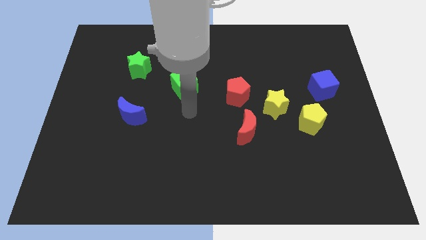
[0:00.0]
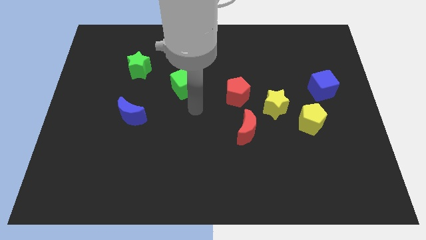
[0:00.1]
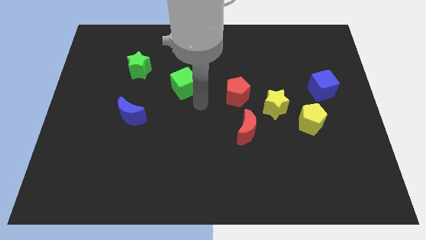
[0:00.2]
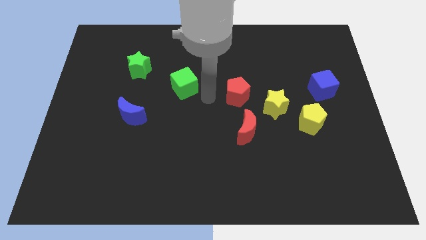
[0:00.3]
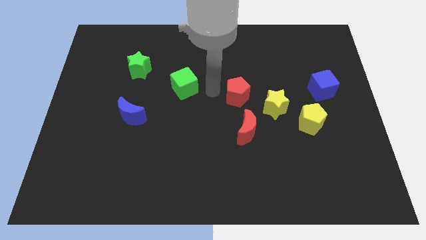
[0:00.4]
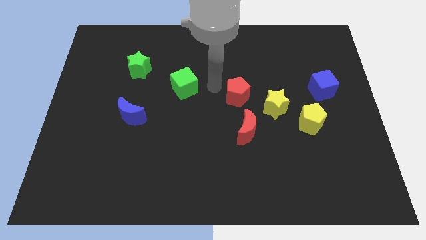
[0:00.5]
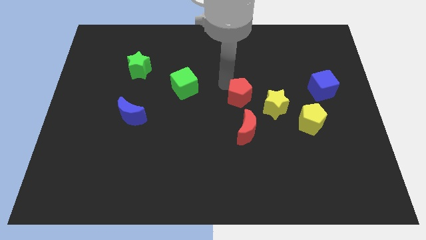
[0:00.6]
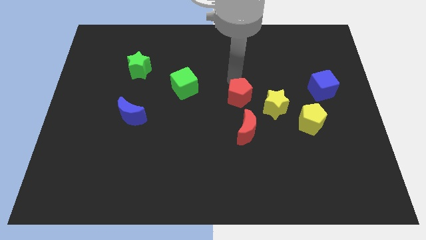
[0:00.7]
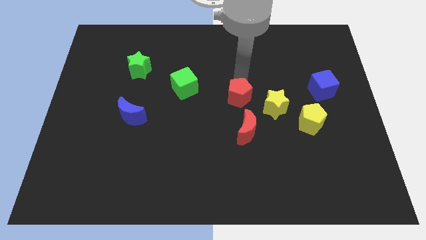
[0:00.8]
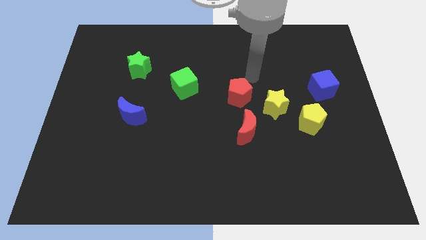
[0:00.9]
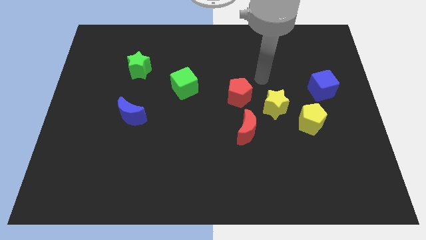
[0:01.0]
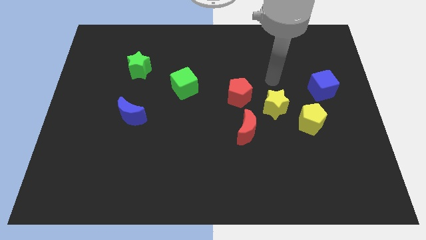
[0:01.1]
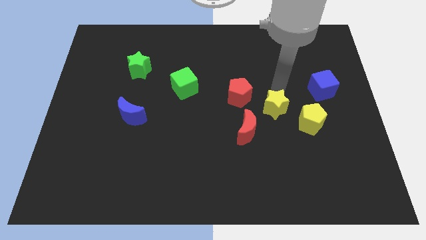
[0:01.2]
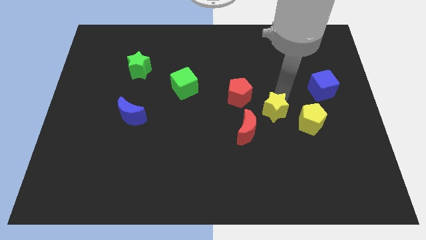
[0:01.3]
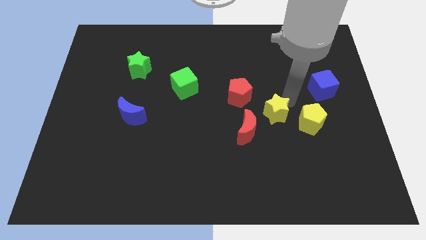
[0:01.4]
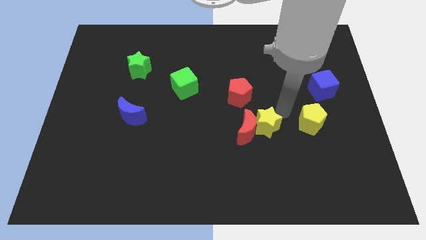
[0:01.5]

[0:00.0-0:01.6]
pull the yellow pentagon apart from the yellow star

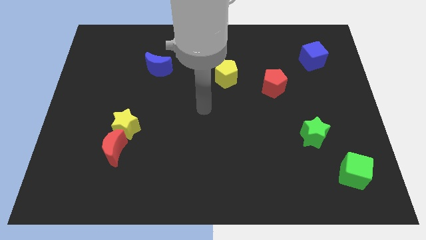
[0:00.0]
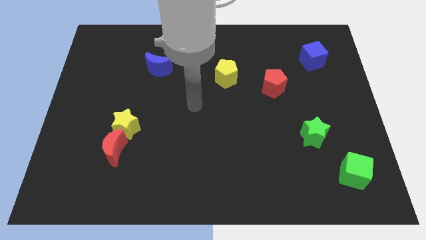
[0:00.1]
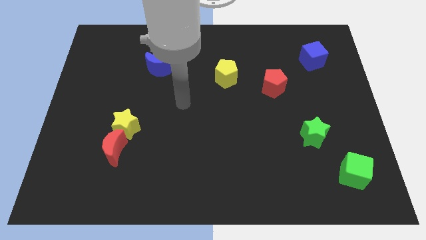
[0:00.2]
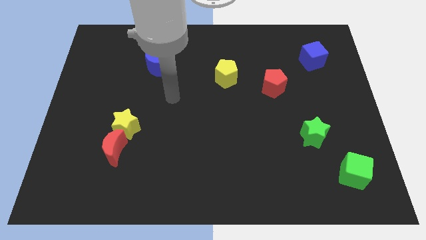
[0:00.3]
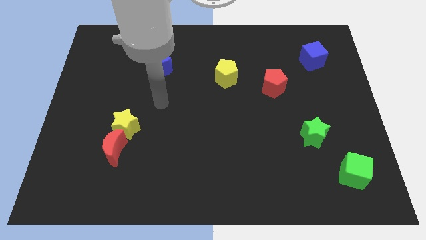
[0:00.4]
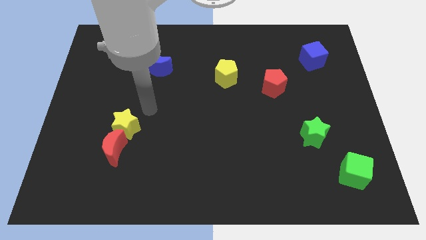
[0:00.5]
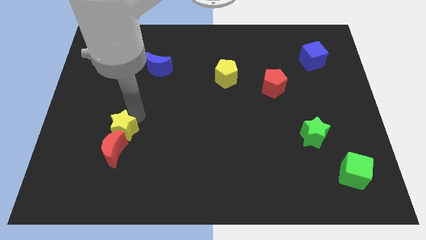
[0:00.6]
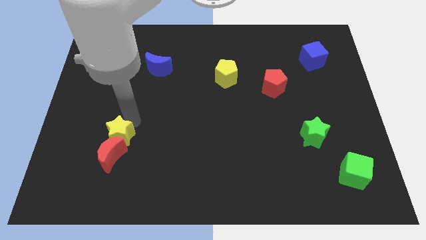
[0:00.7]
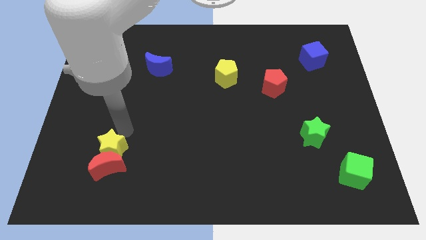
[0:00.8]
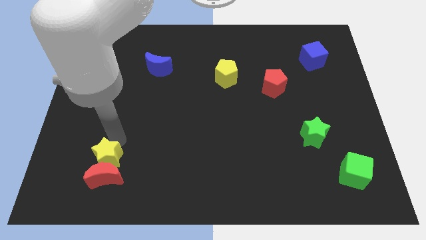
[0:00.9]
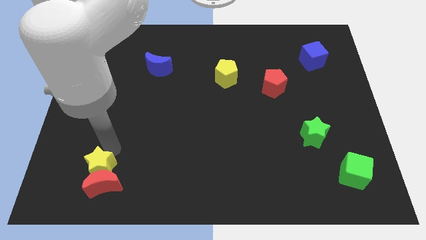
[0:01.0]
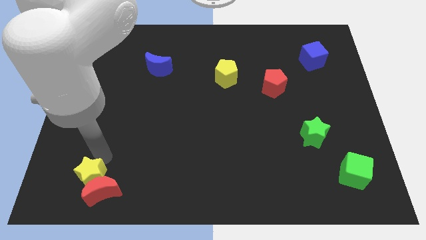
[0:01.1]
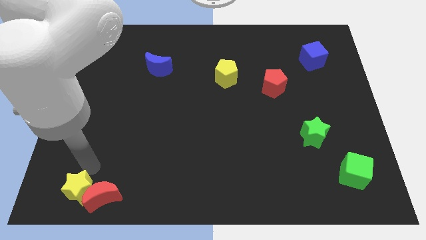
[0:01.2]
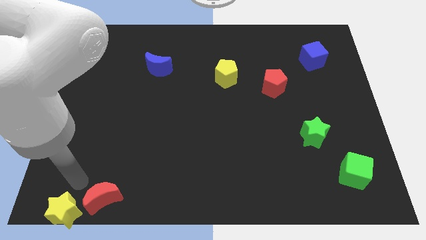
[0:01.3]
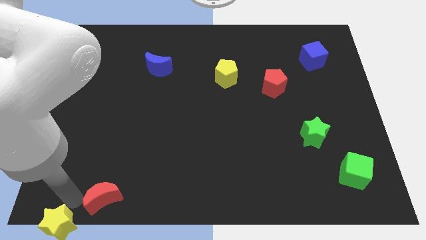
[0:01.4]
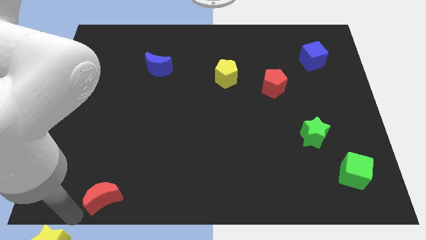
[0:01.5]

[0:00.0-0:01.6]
separate the red moon from the yellow star

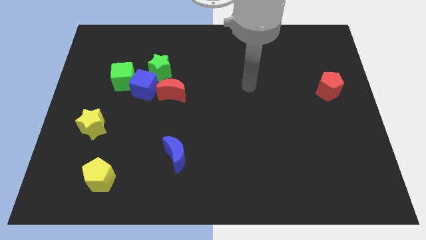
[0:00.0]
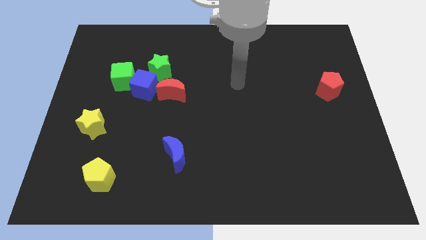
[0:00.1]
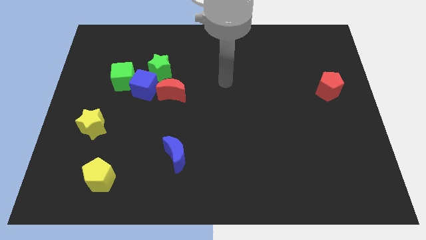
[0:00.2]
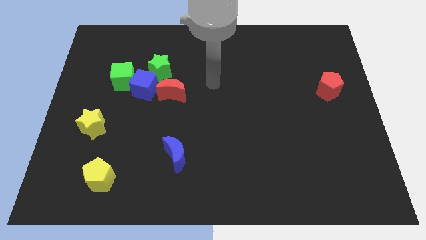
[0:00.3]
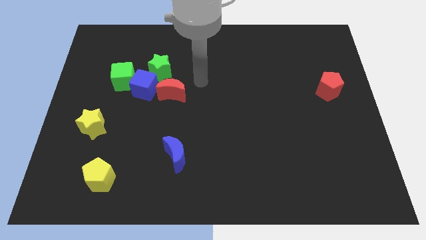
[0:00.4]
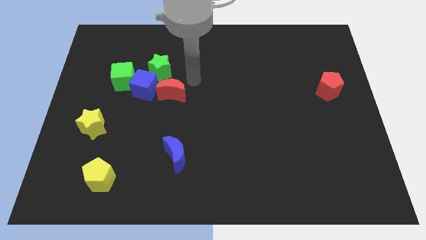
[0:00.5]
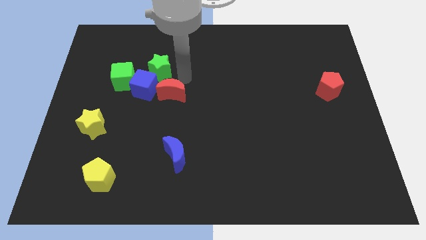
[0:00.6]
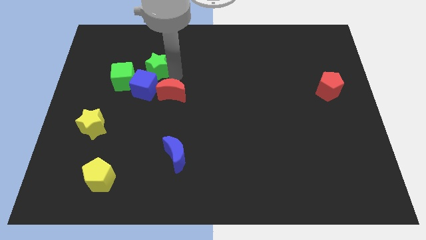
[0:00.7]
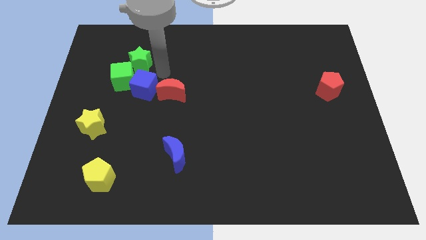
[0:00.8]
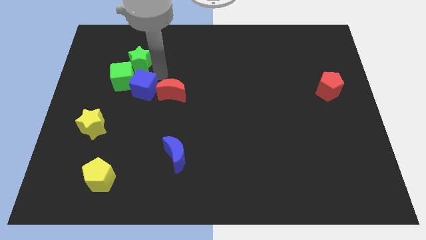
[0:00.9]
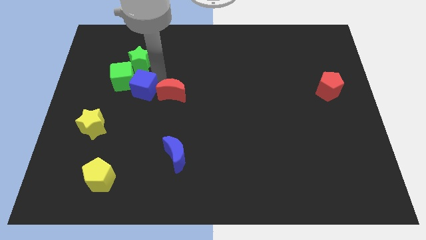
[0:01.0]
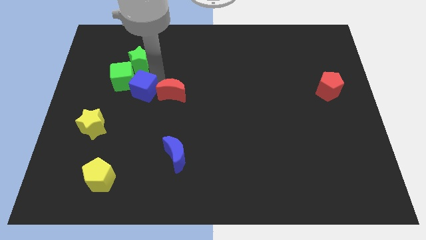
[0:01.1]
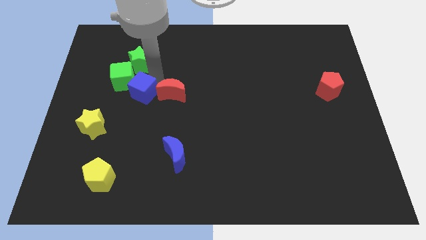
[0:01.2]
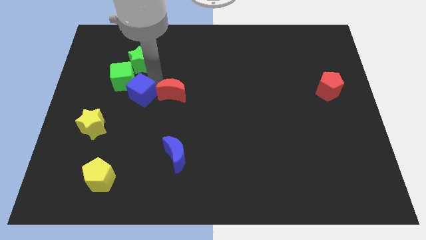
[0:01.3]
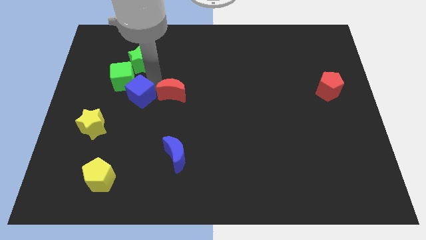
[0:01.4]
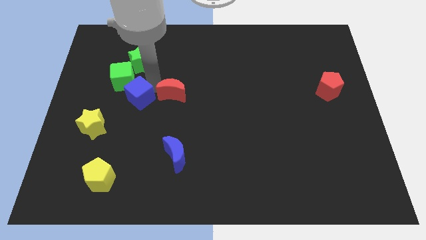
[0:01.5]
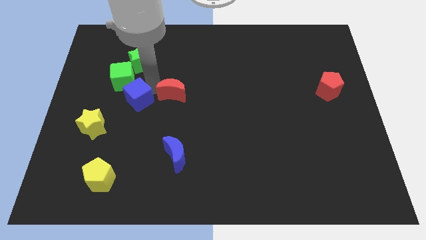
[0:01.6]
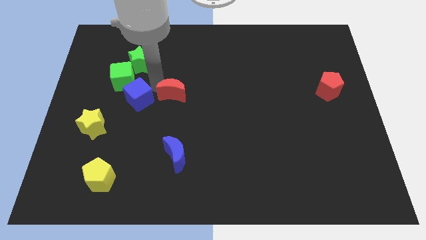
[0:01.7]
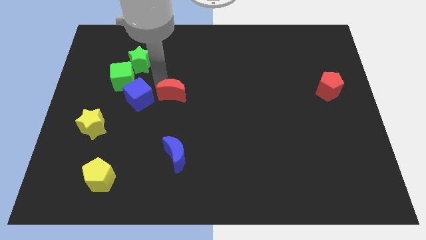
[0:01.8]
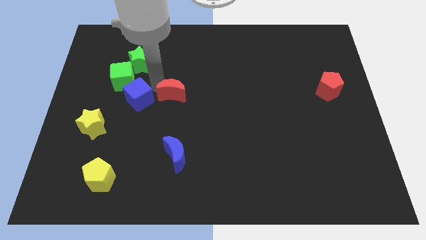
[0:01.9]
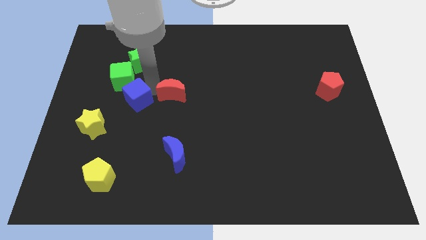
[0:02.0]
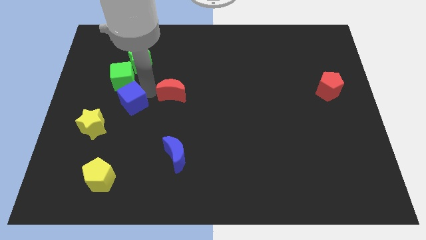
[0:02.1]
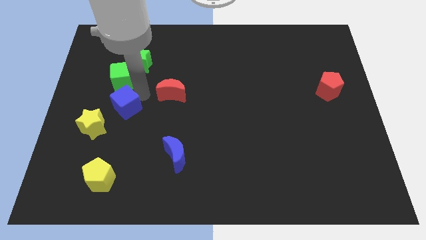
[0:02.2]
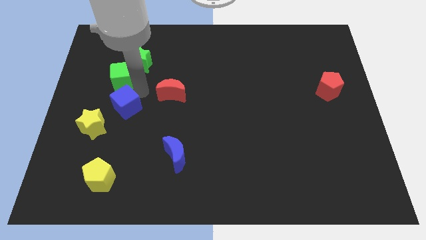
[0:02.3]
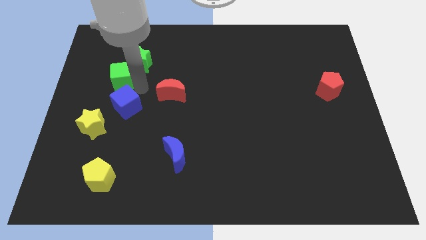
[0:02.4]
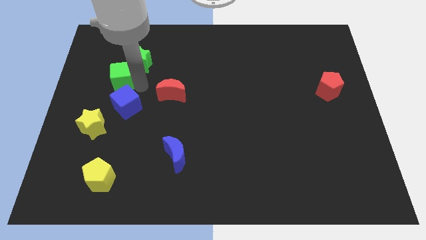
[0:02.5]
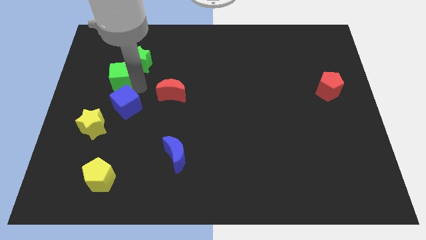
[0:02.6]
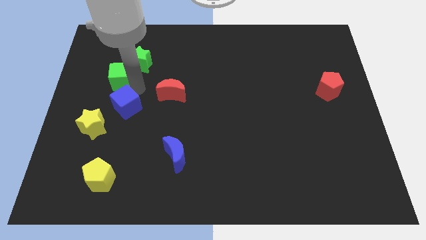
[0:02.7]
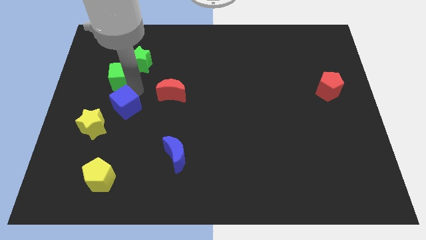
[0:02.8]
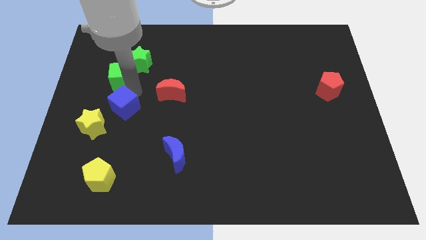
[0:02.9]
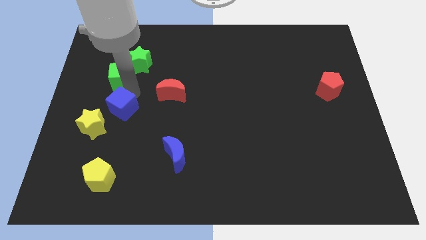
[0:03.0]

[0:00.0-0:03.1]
move the blue cube away from the green cube, green star, and red moon

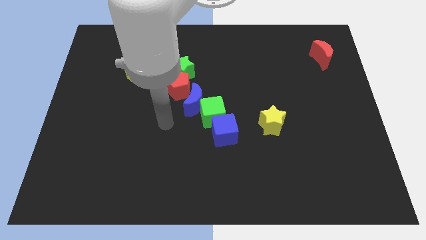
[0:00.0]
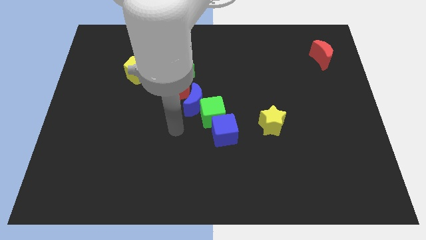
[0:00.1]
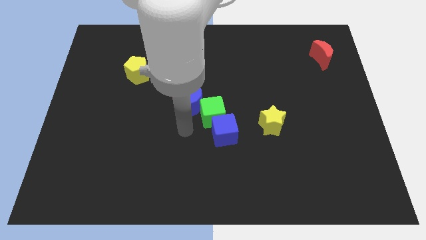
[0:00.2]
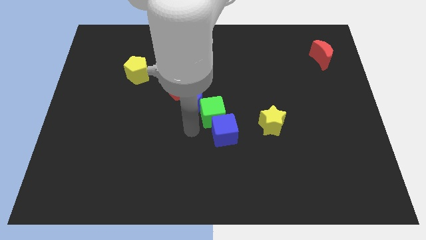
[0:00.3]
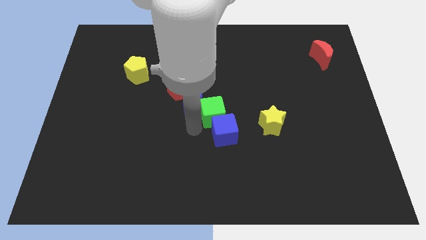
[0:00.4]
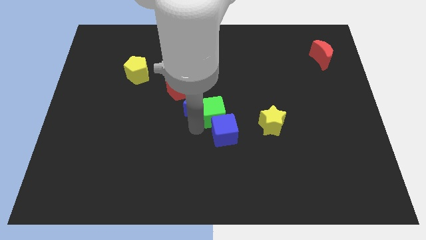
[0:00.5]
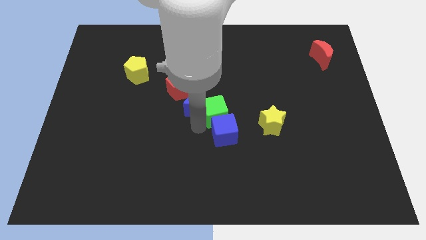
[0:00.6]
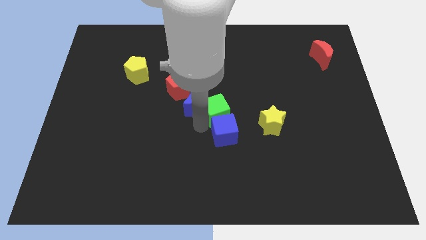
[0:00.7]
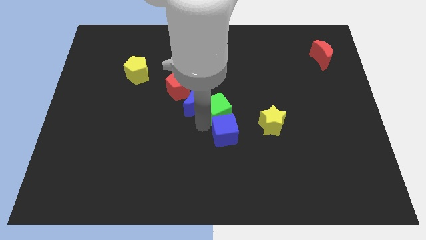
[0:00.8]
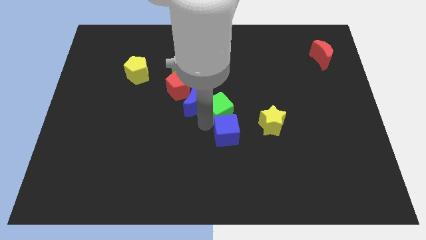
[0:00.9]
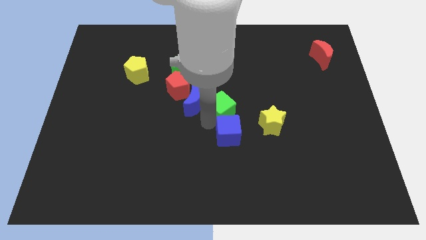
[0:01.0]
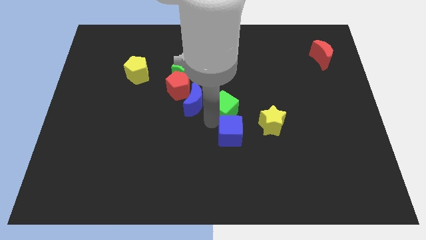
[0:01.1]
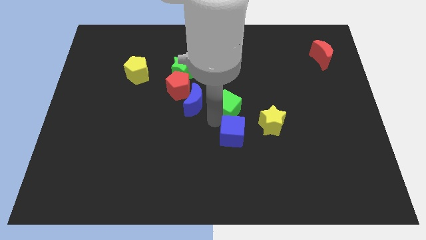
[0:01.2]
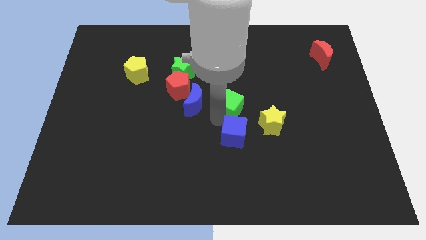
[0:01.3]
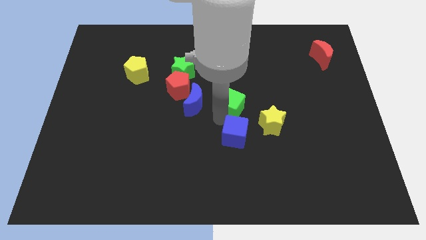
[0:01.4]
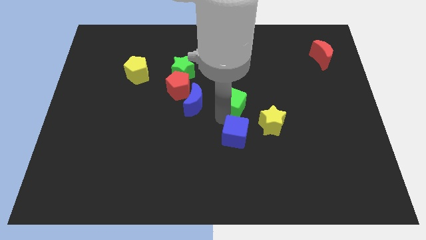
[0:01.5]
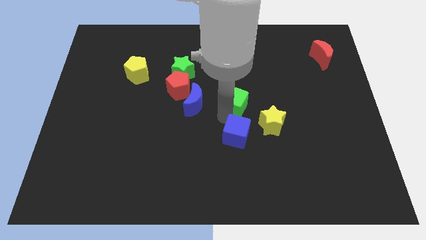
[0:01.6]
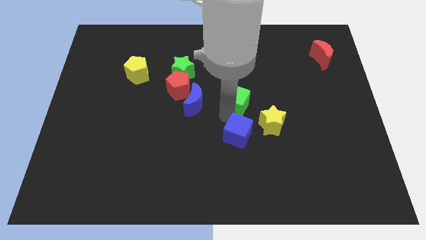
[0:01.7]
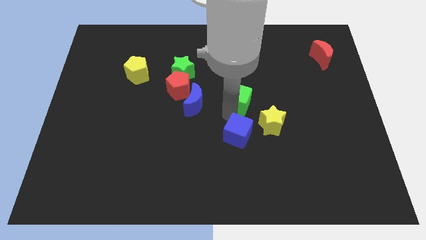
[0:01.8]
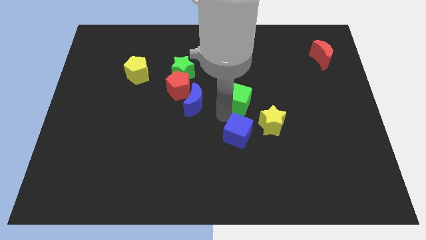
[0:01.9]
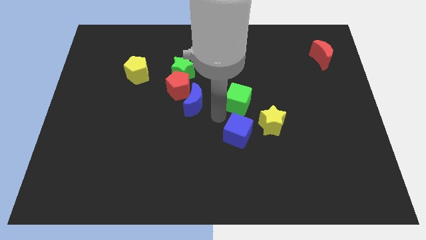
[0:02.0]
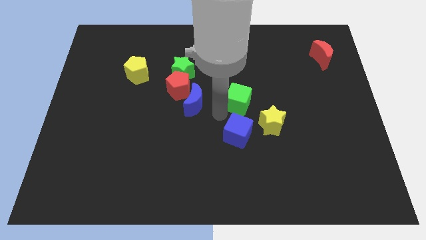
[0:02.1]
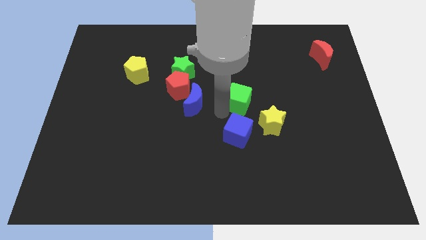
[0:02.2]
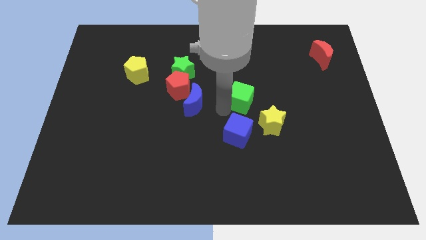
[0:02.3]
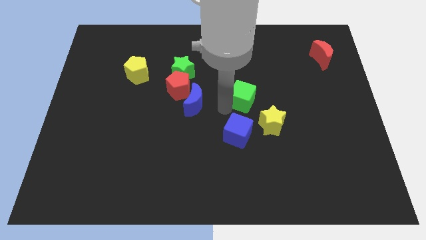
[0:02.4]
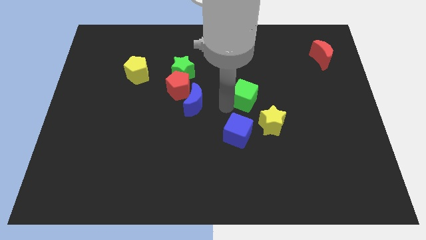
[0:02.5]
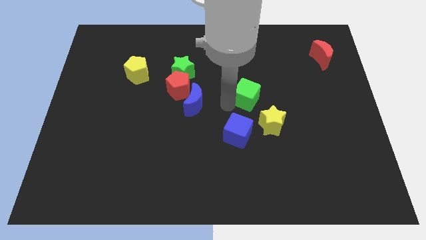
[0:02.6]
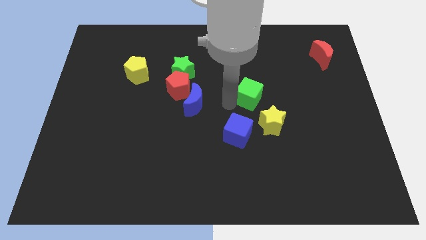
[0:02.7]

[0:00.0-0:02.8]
pull the green cube apart from the blue moon and blue cube

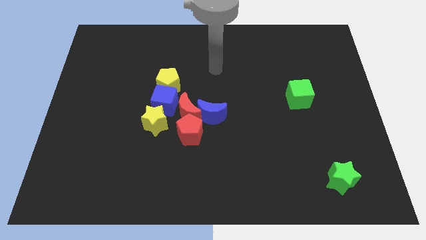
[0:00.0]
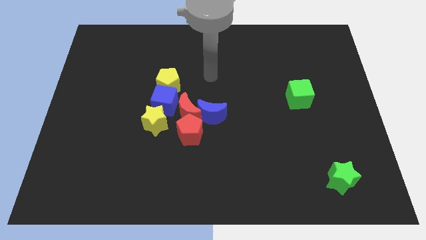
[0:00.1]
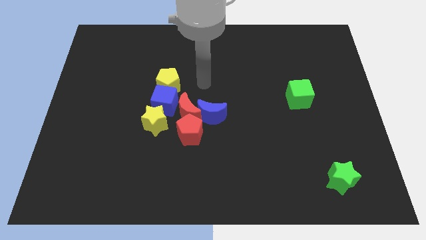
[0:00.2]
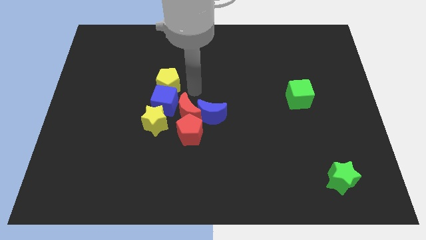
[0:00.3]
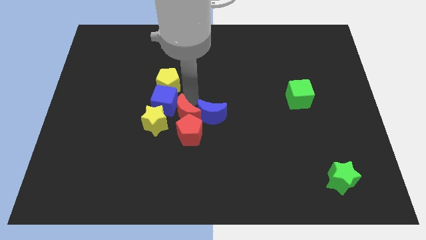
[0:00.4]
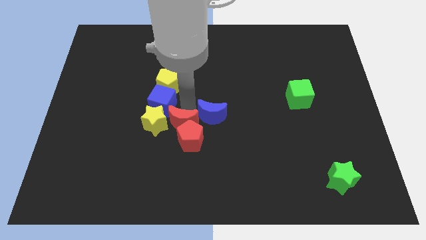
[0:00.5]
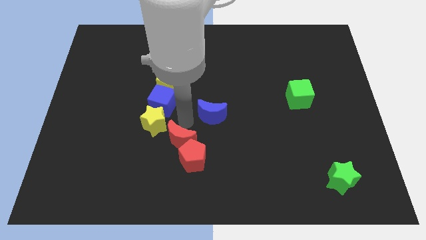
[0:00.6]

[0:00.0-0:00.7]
separate the blue moon from the red moon and red pentagon
